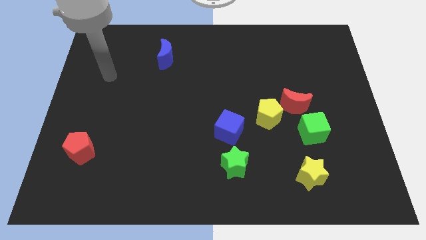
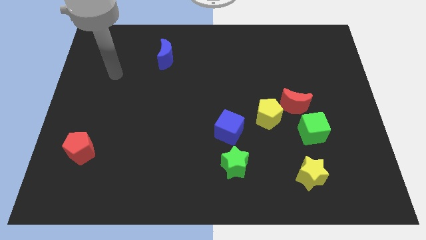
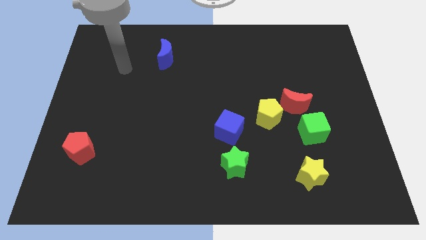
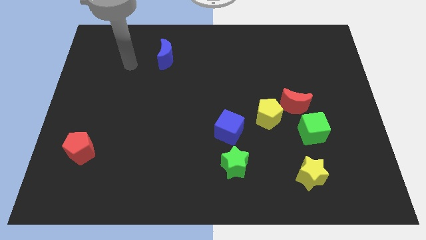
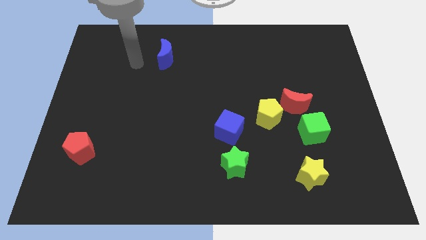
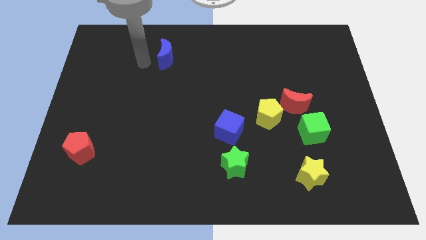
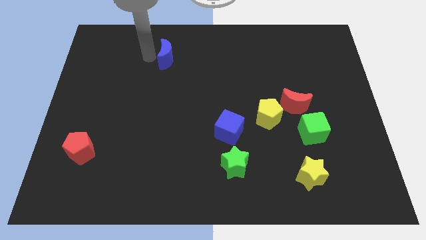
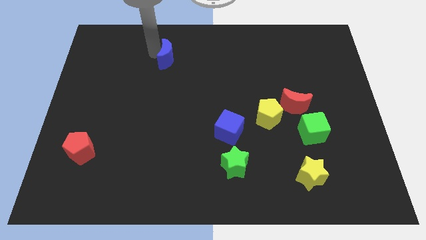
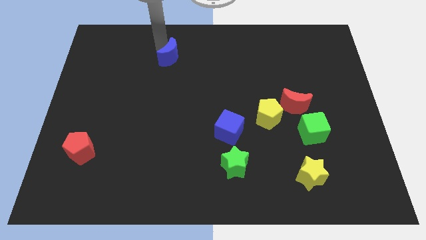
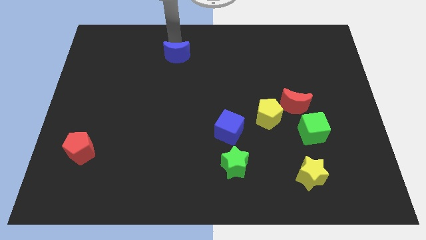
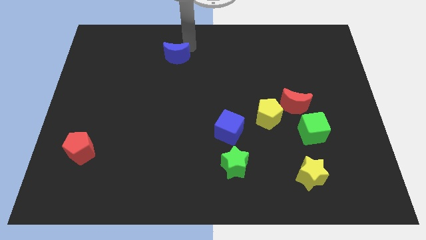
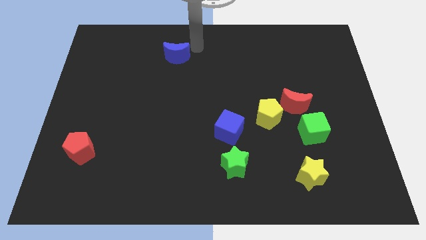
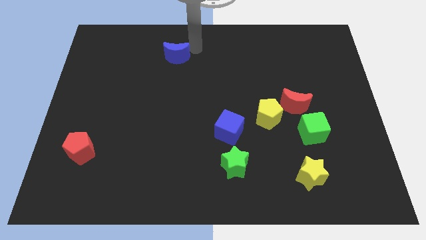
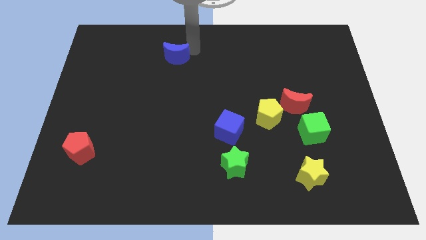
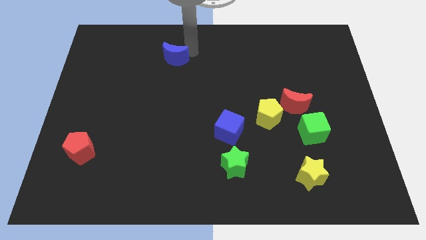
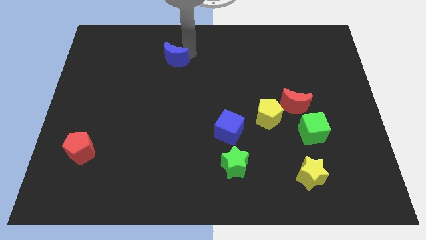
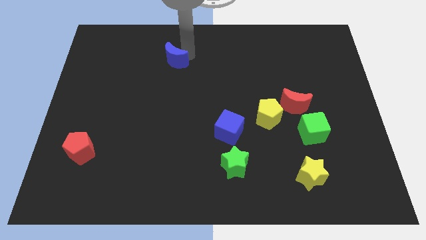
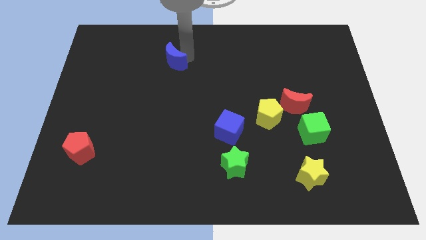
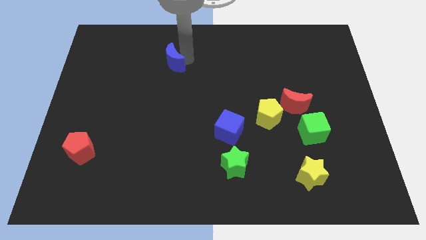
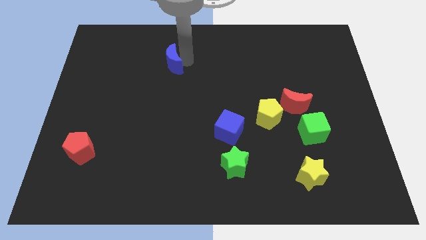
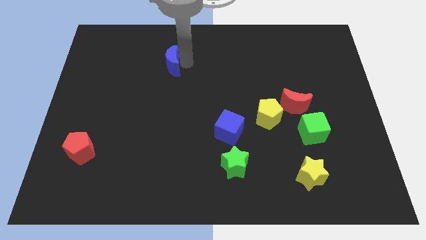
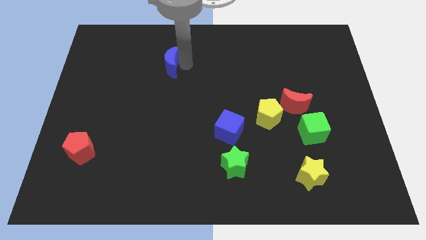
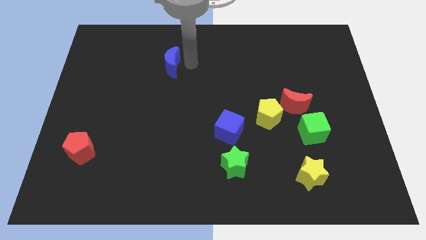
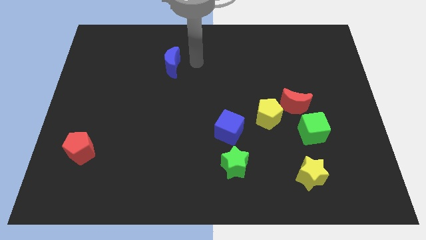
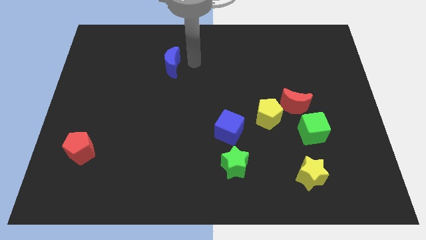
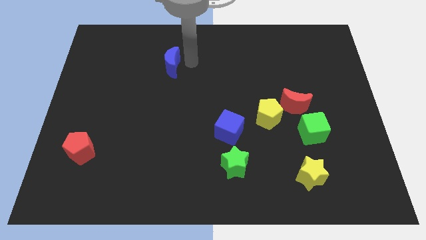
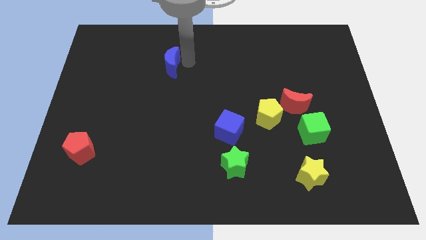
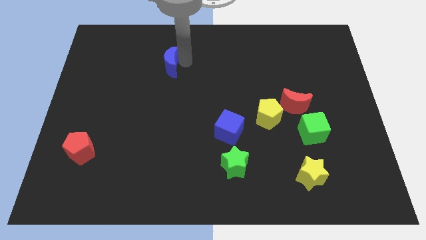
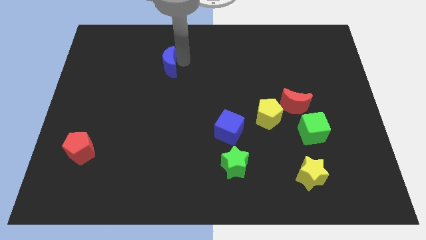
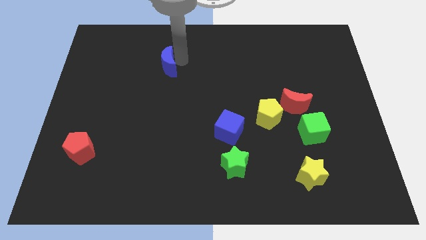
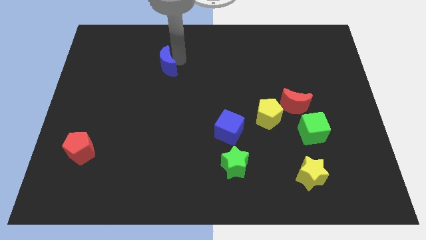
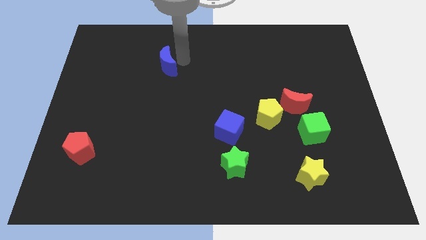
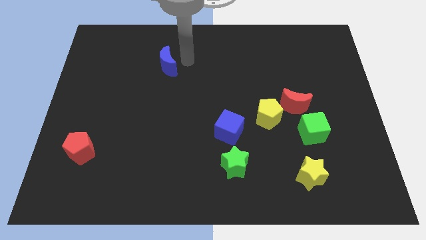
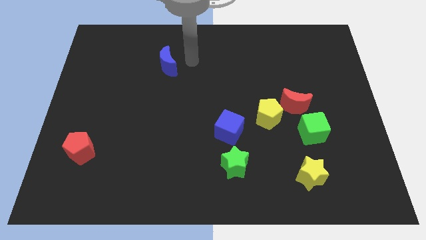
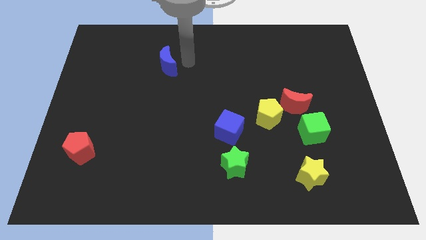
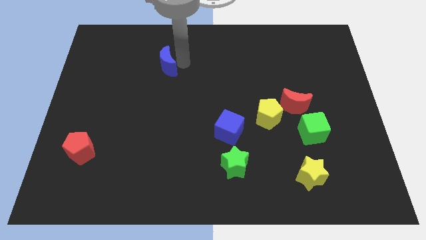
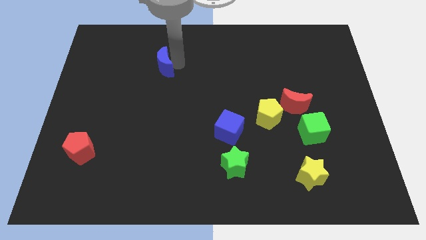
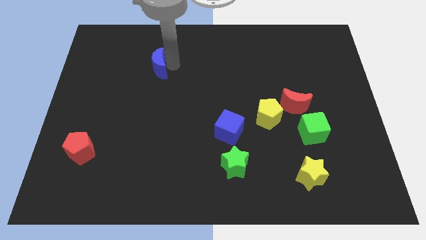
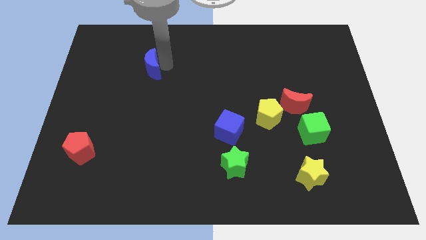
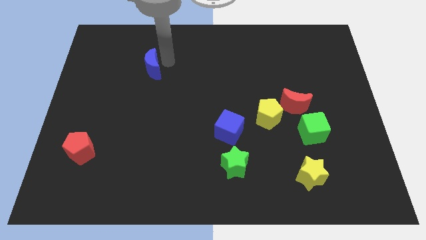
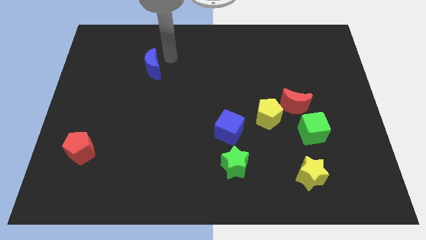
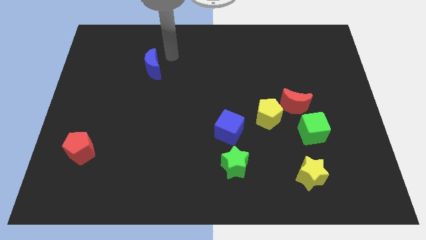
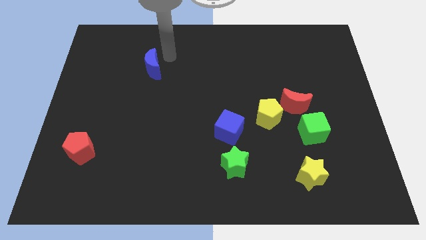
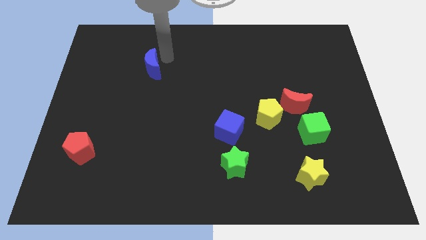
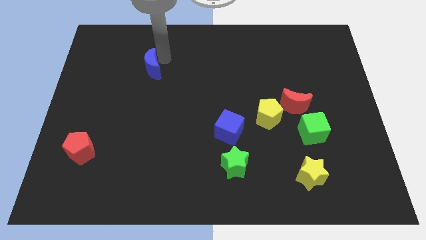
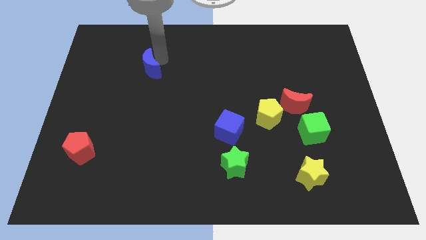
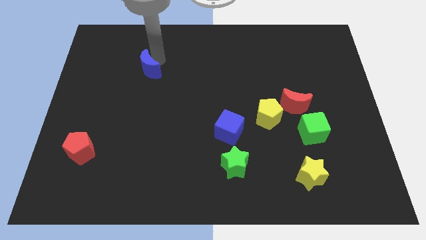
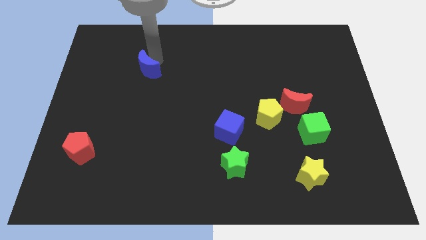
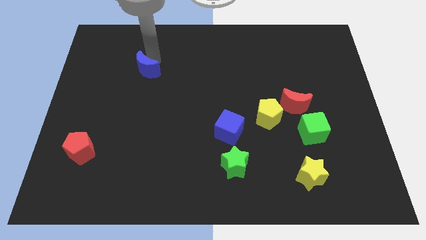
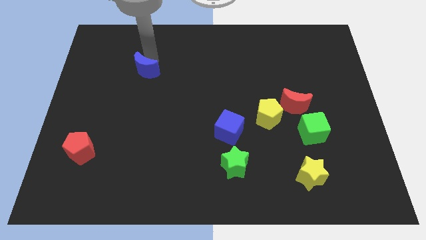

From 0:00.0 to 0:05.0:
move the blue moon somewhat diagonally downwards and left

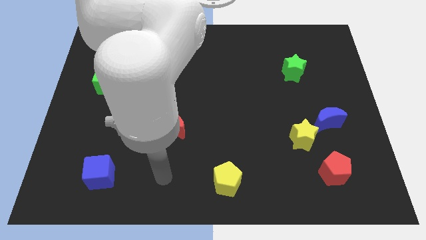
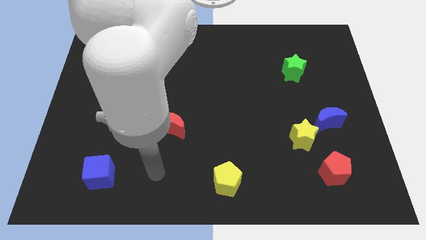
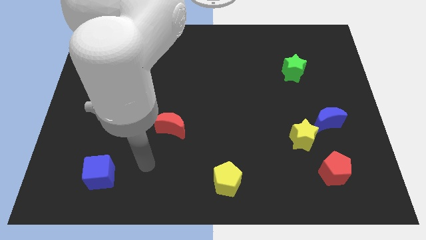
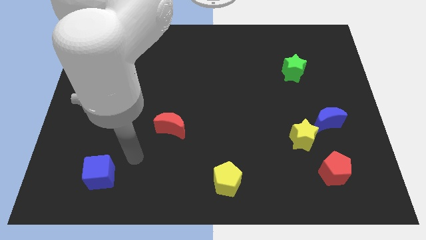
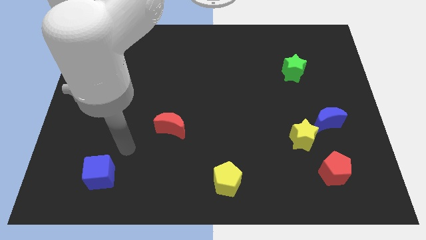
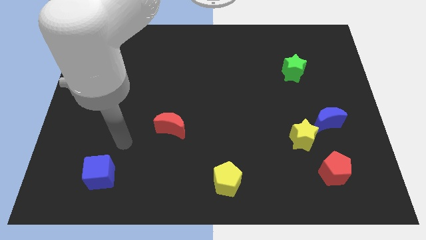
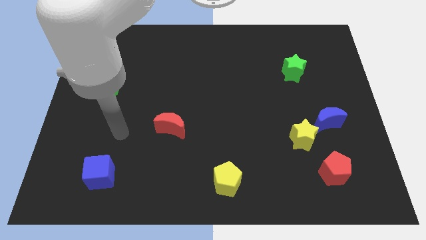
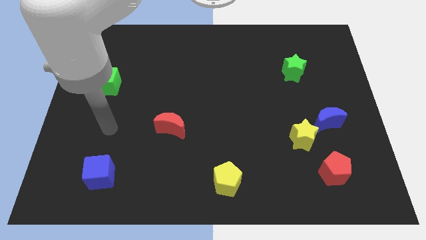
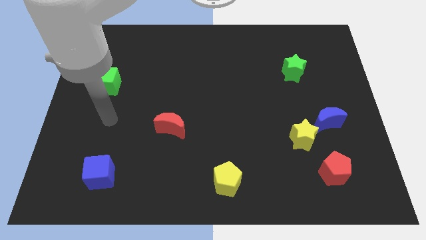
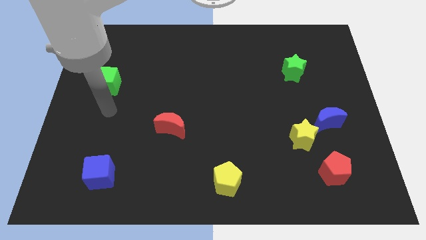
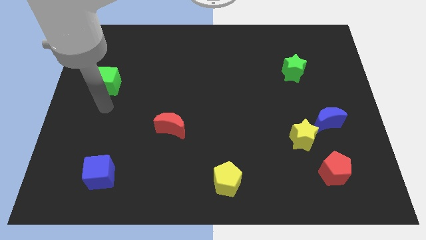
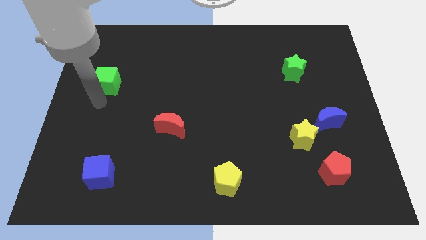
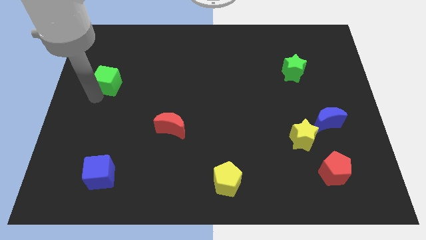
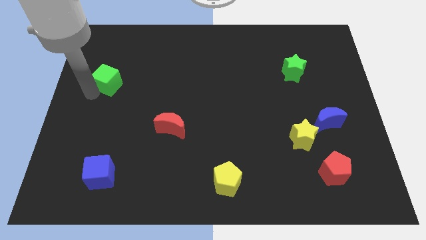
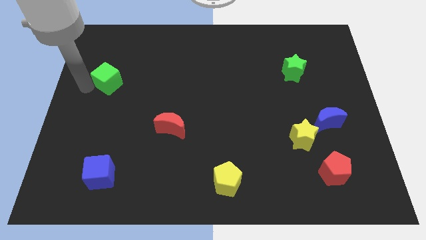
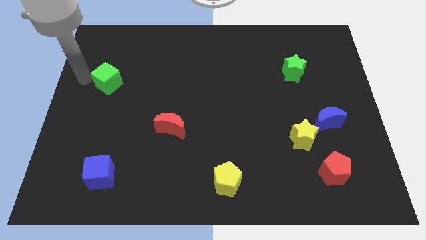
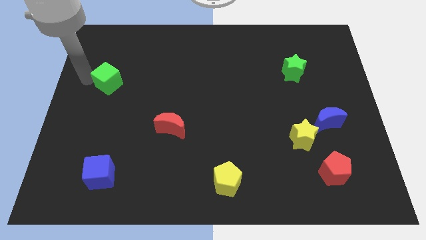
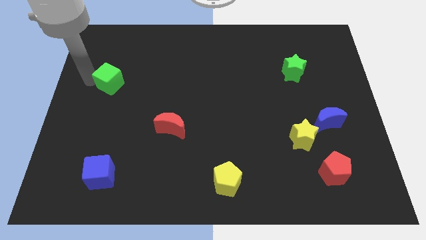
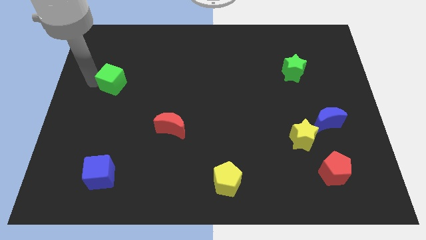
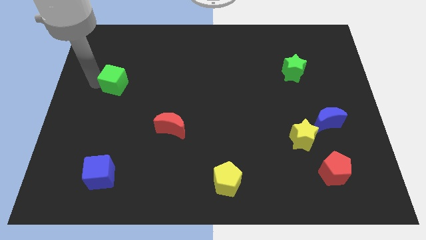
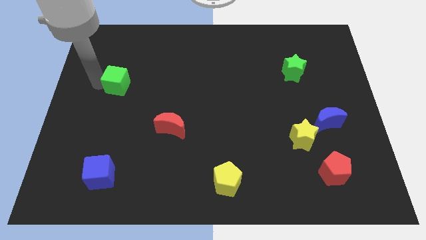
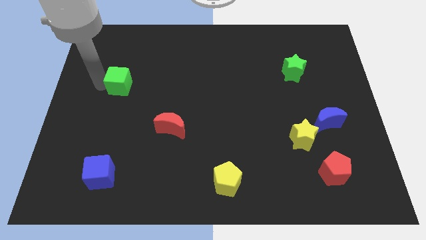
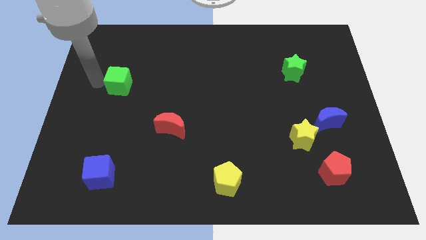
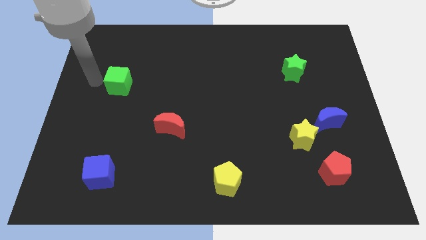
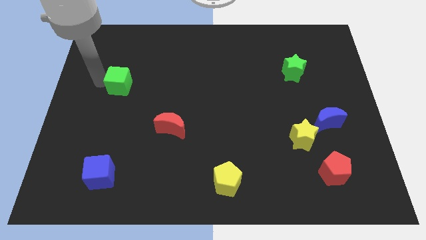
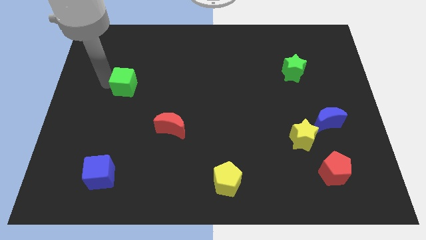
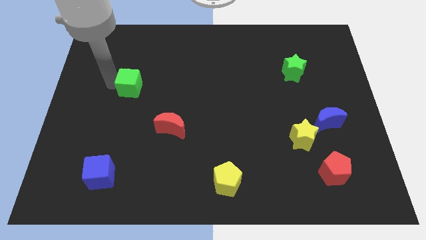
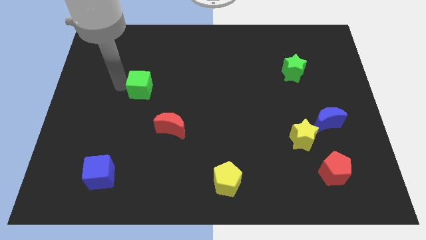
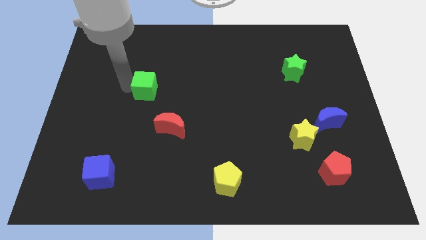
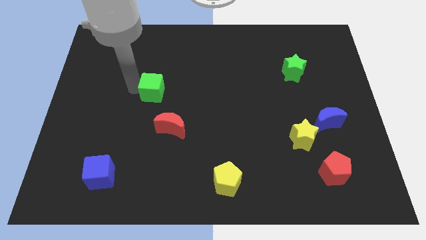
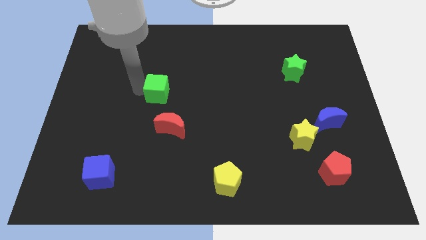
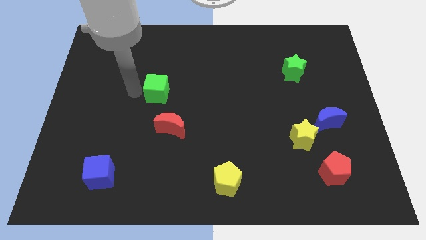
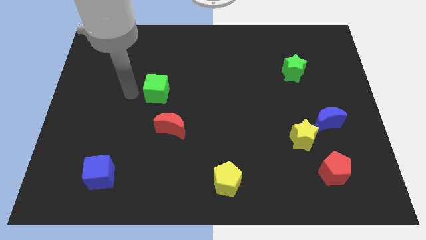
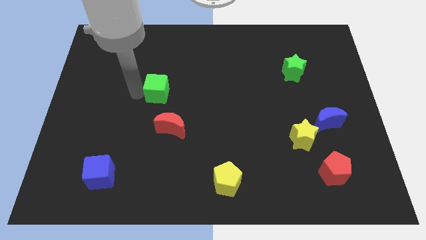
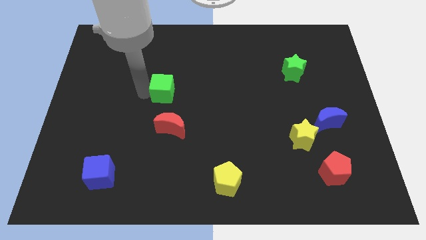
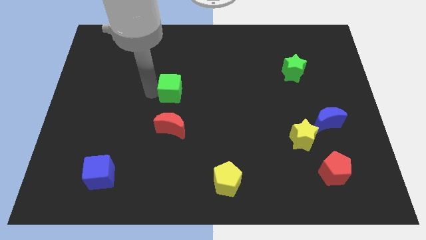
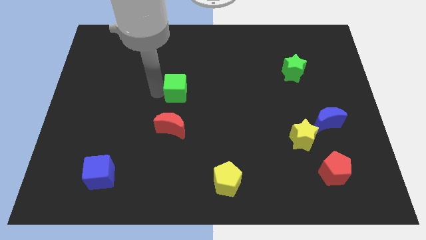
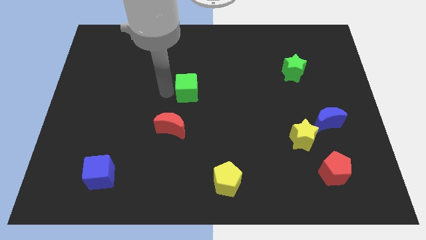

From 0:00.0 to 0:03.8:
move the green cube to the right
